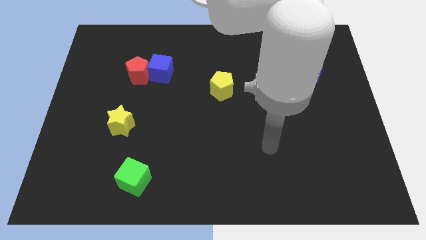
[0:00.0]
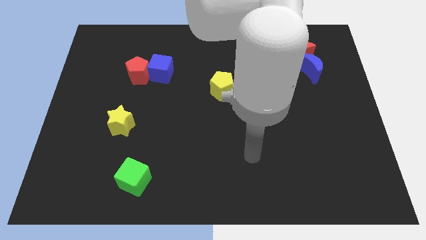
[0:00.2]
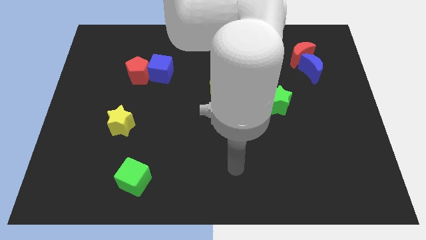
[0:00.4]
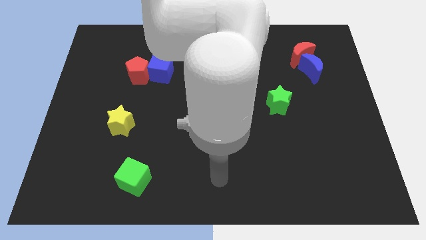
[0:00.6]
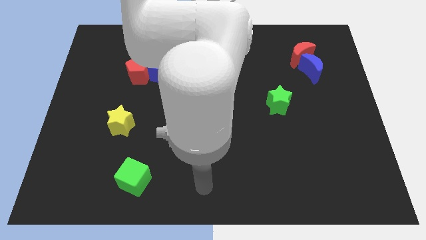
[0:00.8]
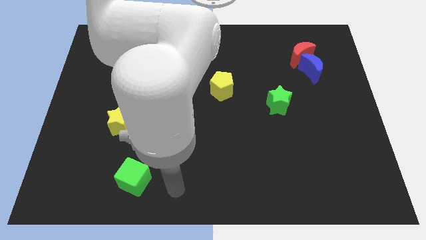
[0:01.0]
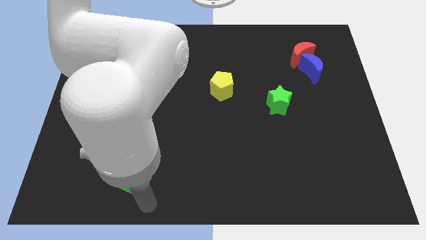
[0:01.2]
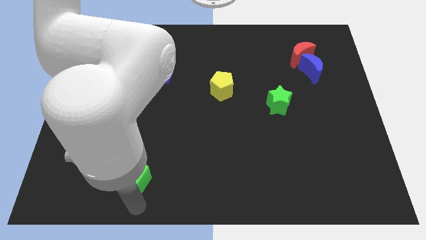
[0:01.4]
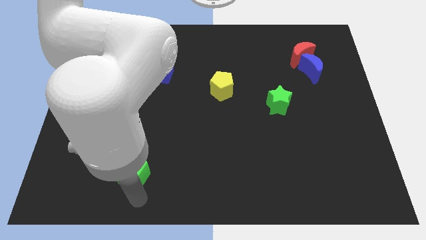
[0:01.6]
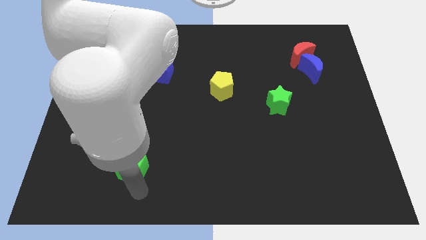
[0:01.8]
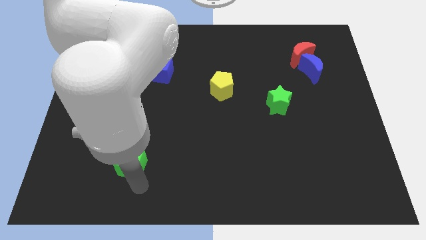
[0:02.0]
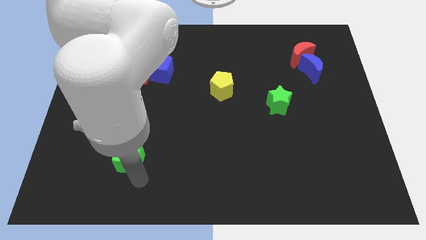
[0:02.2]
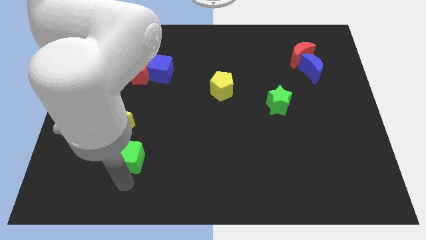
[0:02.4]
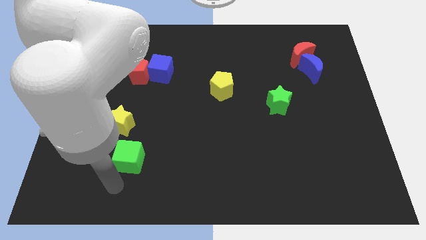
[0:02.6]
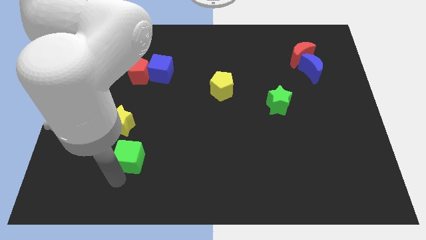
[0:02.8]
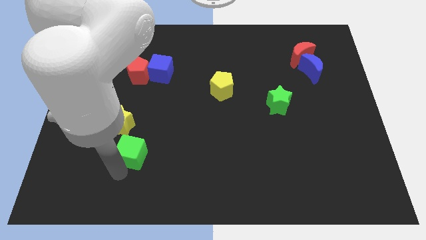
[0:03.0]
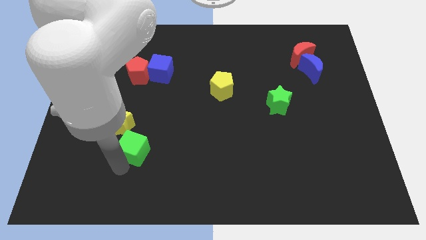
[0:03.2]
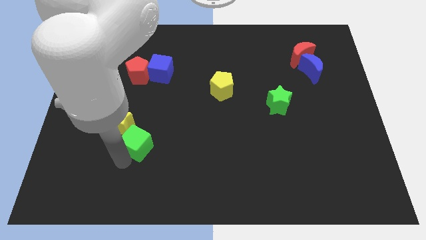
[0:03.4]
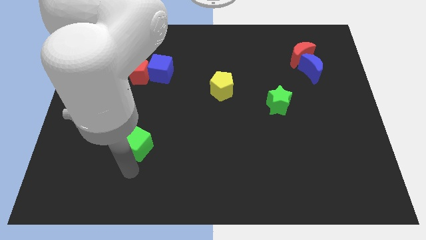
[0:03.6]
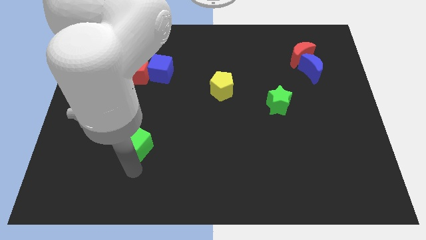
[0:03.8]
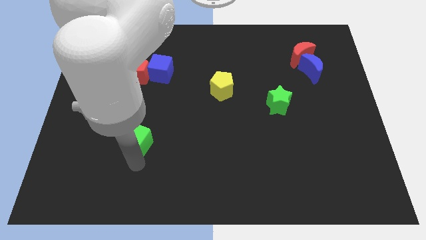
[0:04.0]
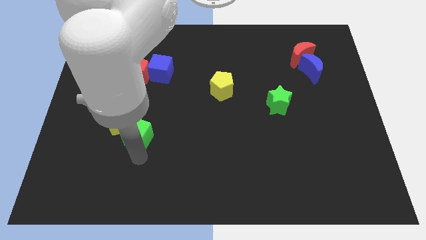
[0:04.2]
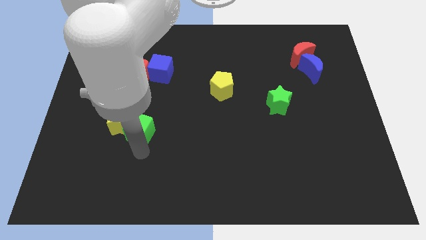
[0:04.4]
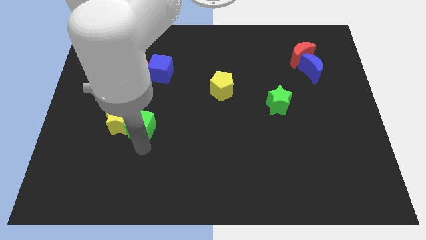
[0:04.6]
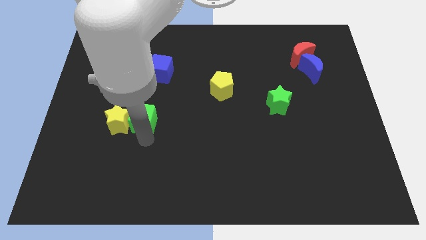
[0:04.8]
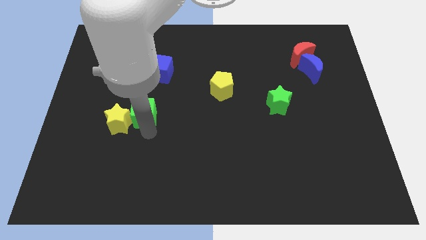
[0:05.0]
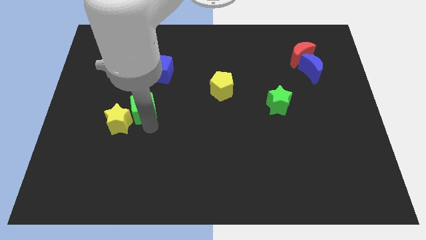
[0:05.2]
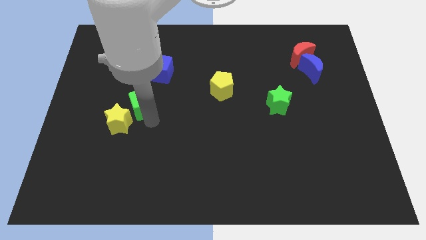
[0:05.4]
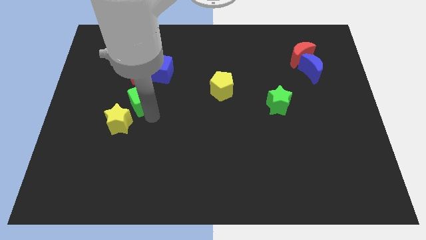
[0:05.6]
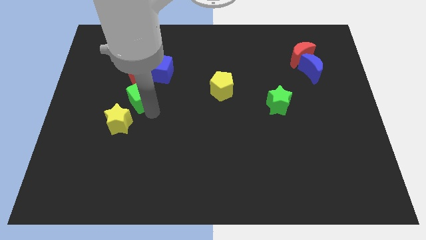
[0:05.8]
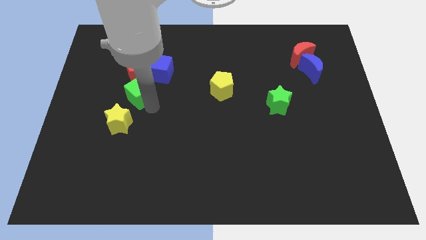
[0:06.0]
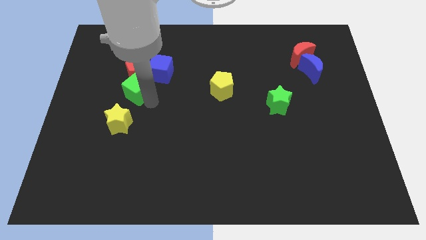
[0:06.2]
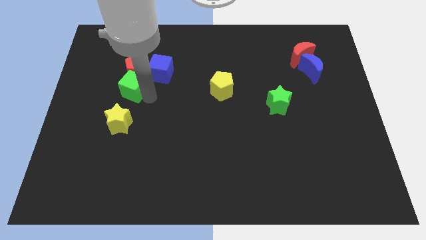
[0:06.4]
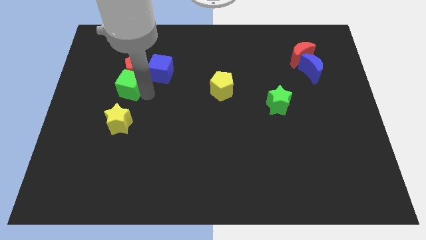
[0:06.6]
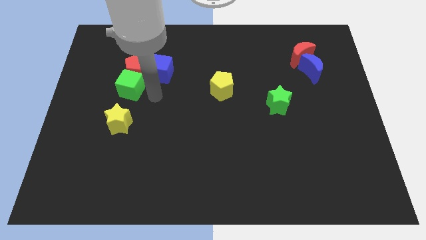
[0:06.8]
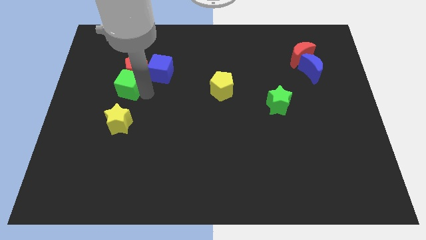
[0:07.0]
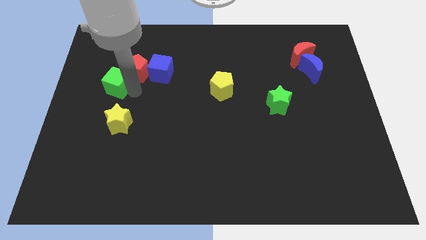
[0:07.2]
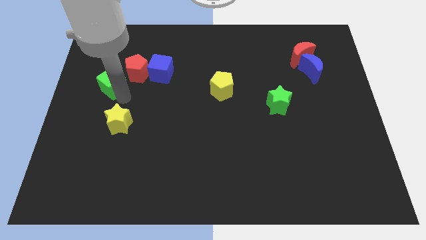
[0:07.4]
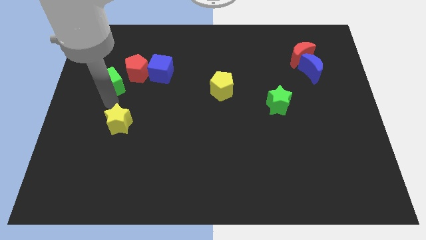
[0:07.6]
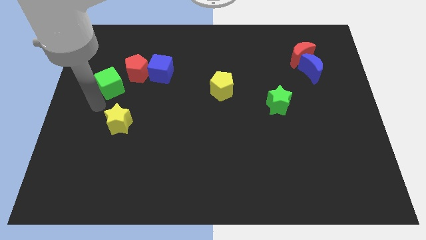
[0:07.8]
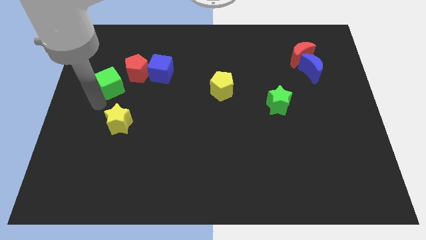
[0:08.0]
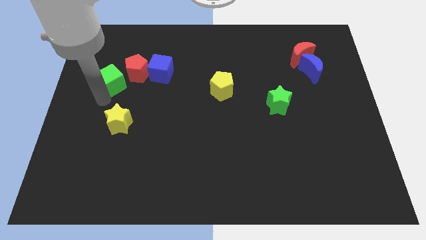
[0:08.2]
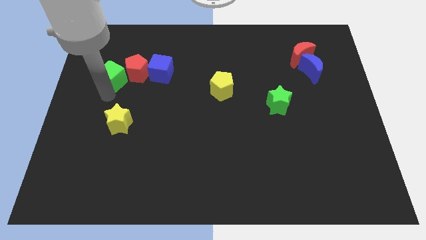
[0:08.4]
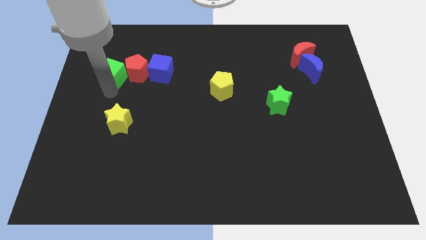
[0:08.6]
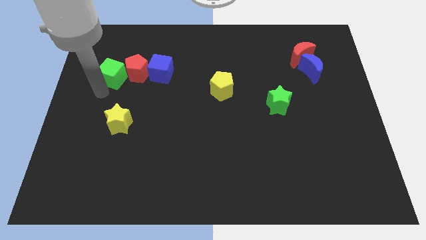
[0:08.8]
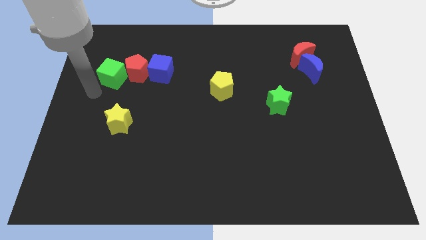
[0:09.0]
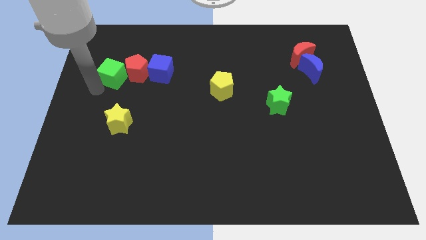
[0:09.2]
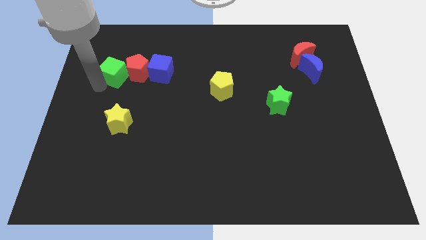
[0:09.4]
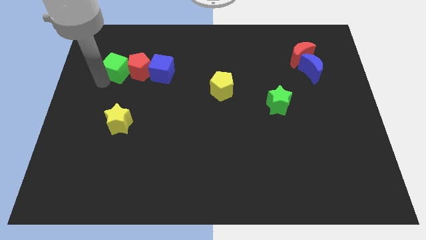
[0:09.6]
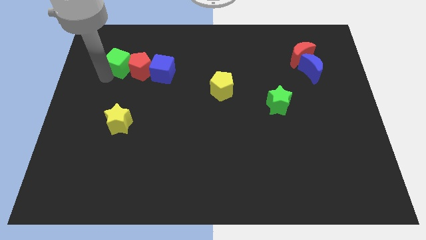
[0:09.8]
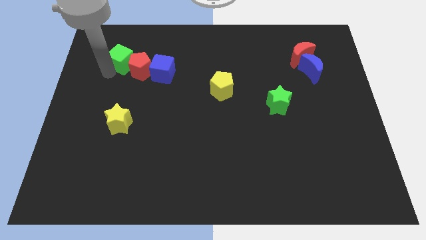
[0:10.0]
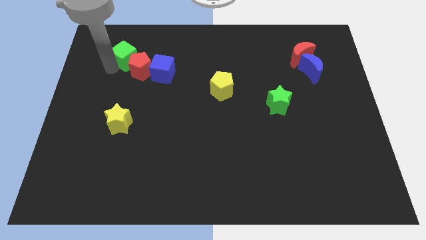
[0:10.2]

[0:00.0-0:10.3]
slide the green cube to the top left of the blue cube

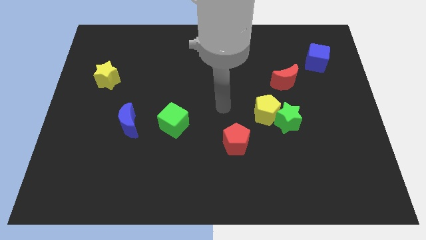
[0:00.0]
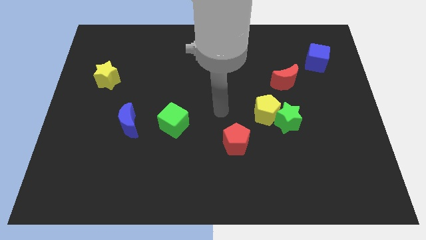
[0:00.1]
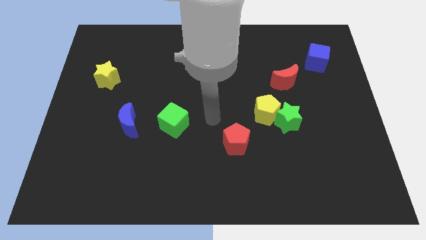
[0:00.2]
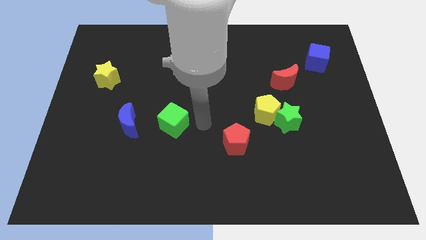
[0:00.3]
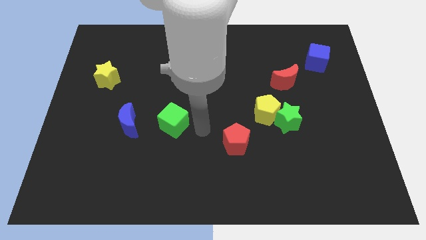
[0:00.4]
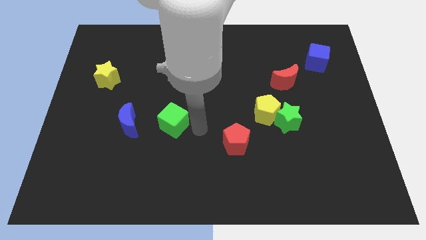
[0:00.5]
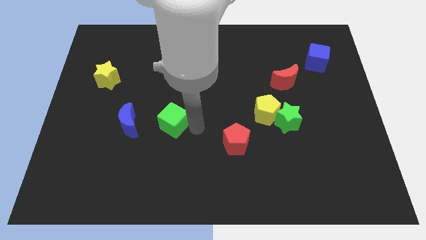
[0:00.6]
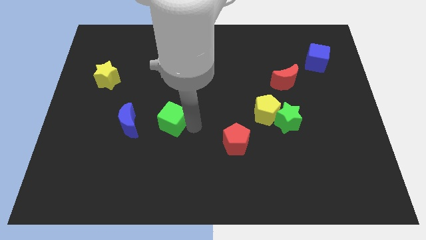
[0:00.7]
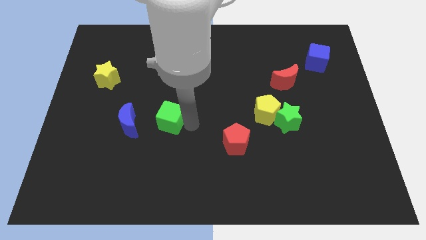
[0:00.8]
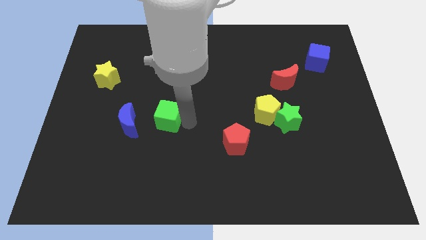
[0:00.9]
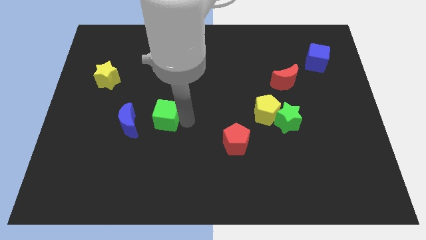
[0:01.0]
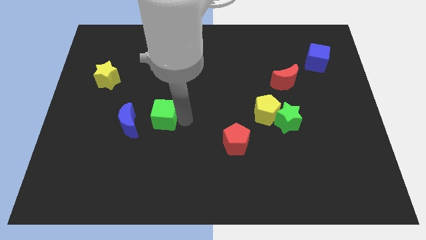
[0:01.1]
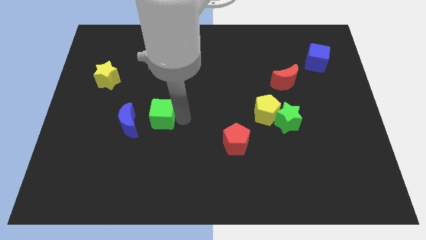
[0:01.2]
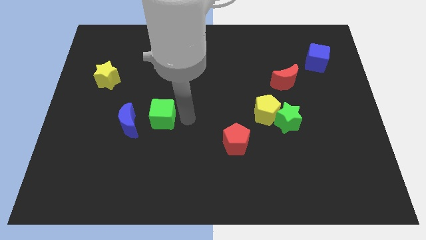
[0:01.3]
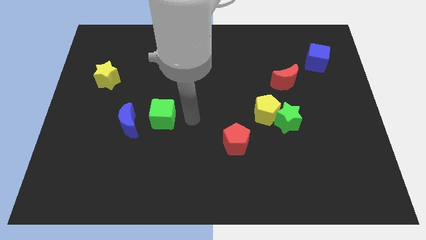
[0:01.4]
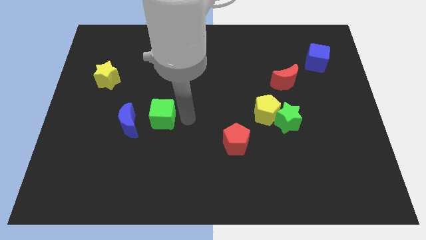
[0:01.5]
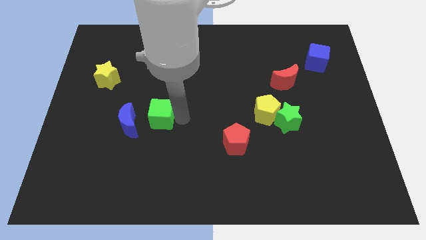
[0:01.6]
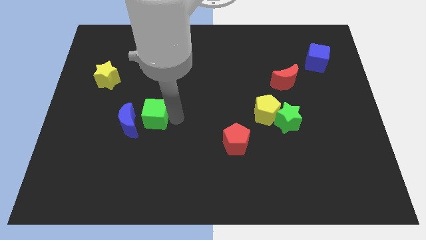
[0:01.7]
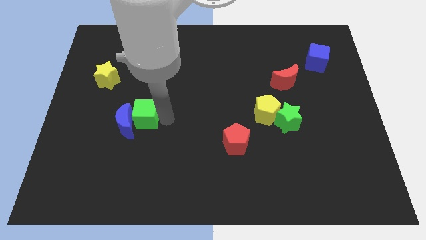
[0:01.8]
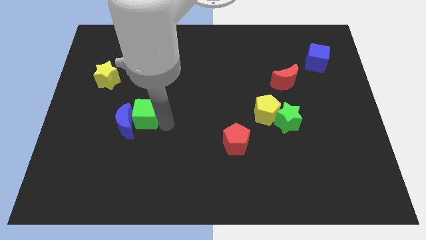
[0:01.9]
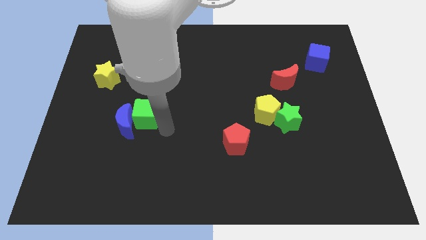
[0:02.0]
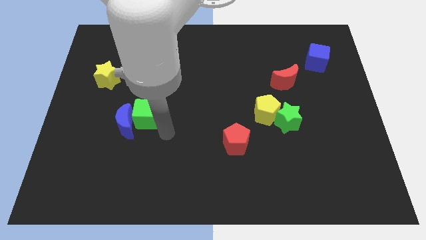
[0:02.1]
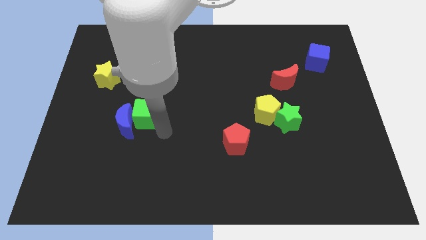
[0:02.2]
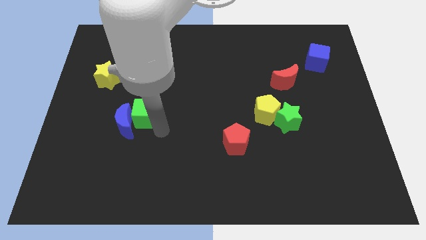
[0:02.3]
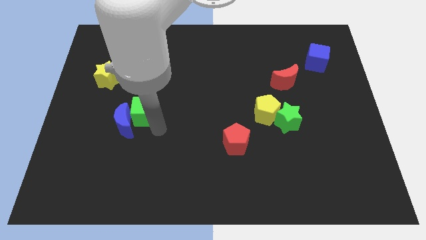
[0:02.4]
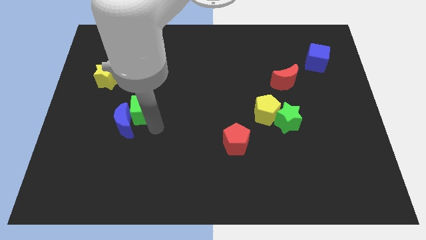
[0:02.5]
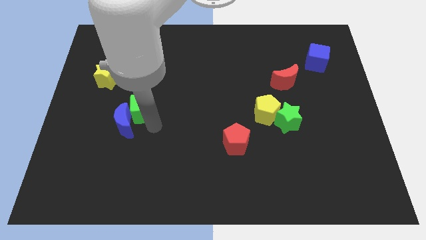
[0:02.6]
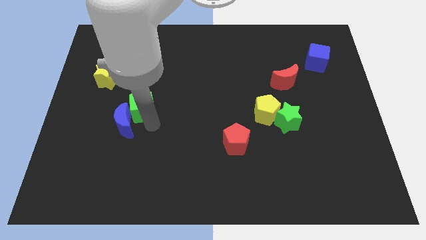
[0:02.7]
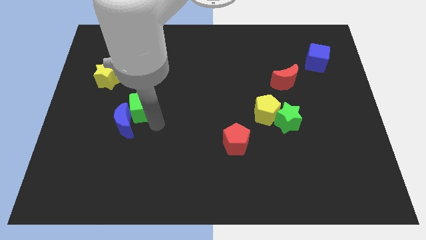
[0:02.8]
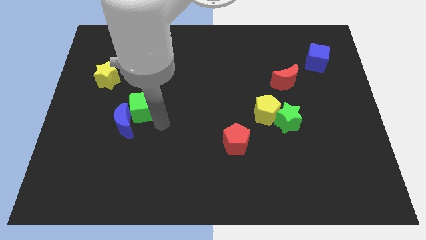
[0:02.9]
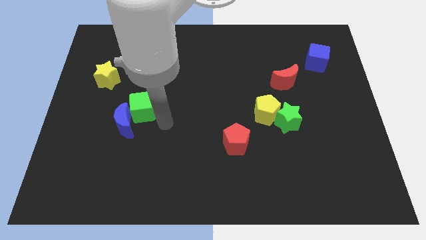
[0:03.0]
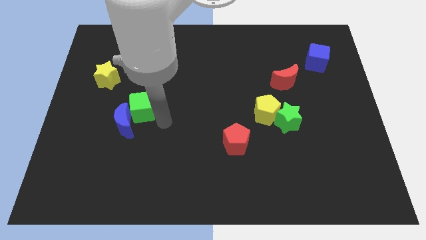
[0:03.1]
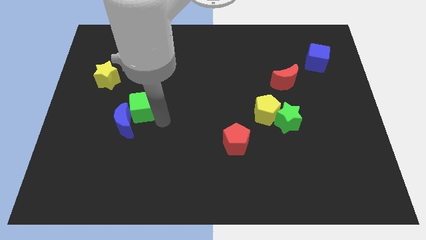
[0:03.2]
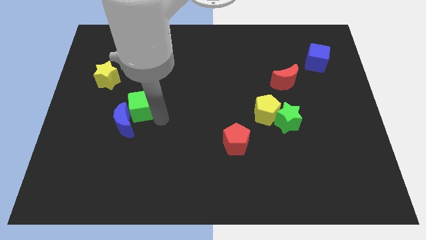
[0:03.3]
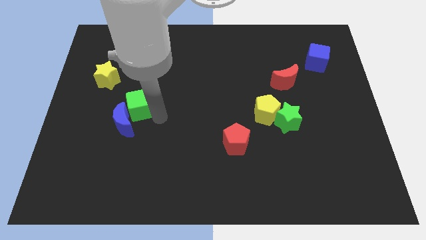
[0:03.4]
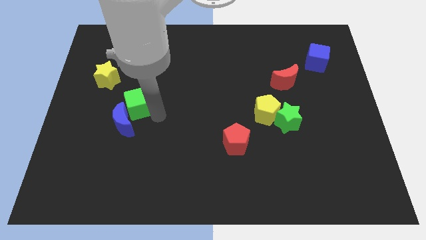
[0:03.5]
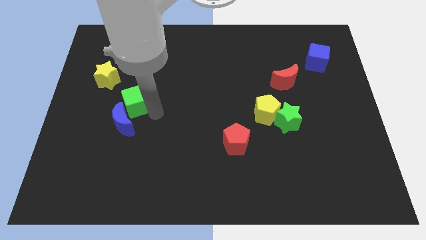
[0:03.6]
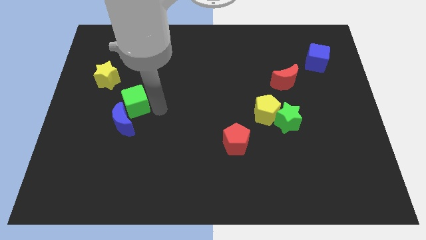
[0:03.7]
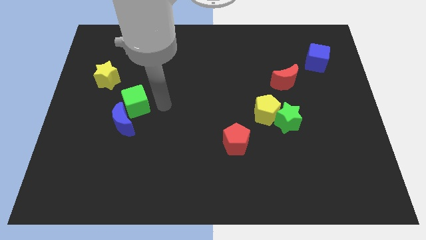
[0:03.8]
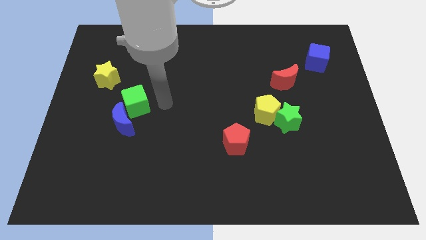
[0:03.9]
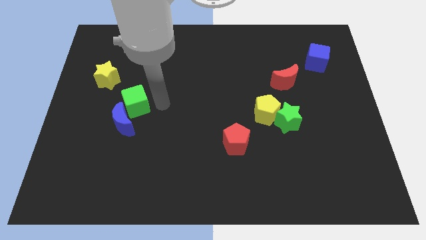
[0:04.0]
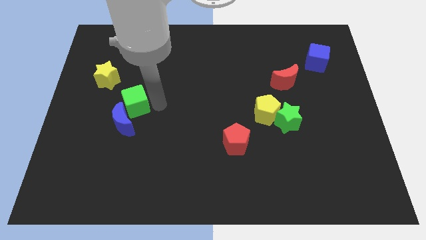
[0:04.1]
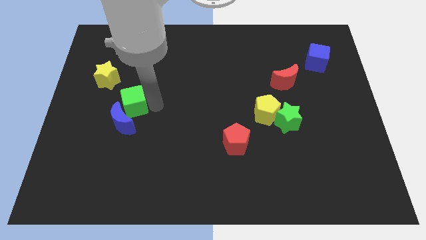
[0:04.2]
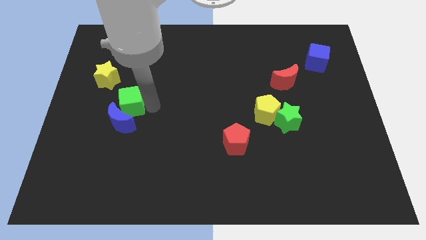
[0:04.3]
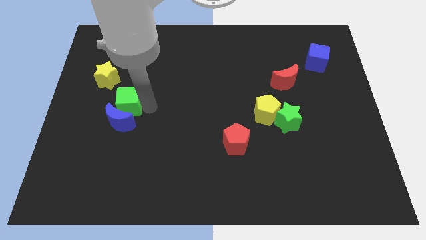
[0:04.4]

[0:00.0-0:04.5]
put the green cube diagonally up and to the left of the blue moon
